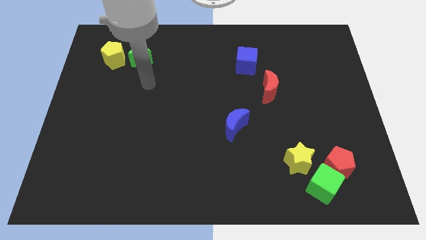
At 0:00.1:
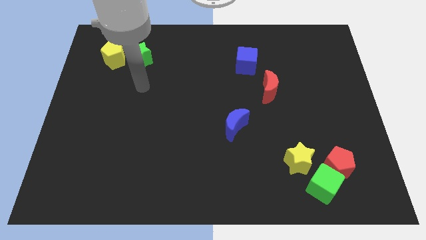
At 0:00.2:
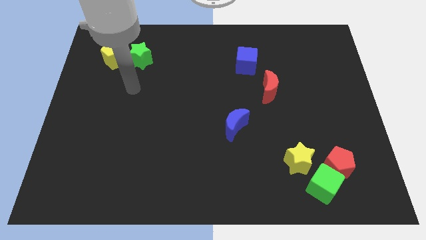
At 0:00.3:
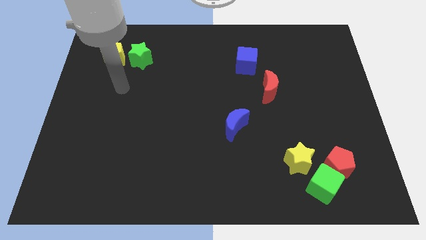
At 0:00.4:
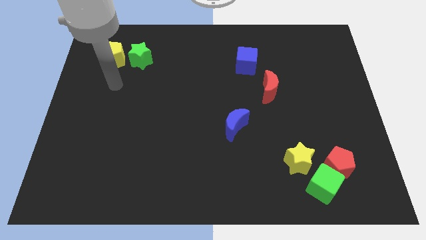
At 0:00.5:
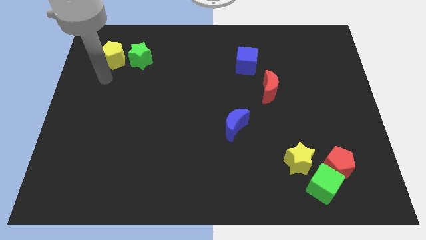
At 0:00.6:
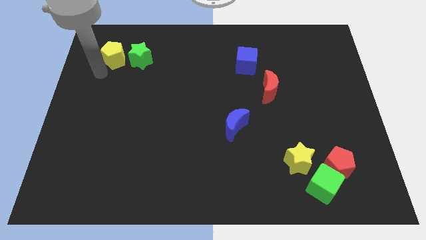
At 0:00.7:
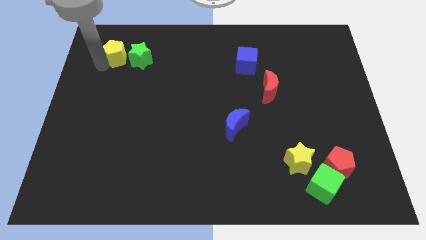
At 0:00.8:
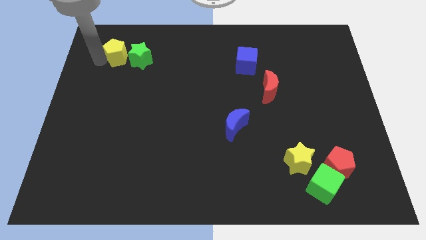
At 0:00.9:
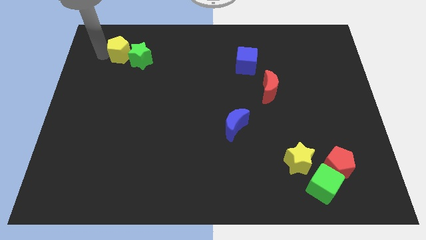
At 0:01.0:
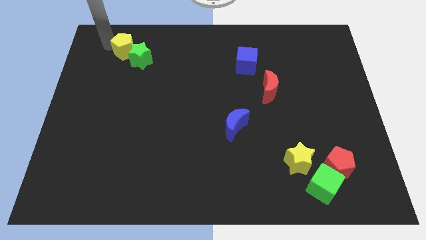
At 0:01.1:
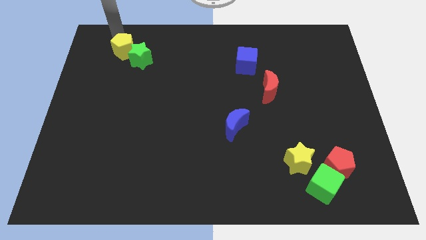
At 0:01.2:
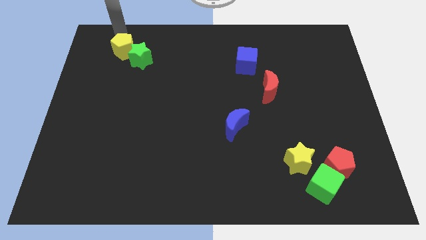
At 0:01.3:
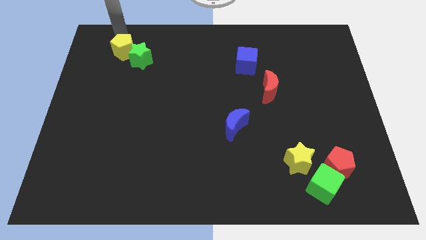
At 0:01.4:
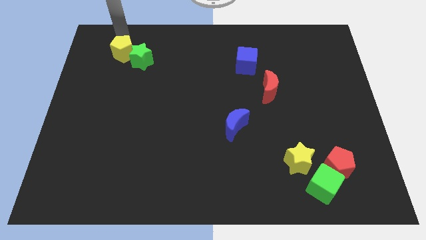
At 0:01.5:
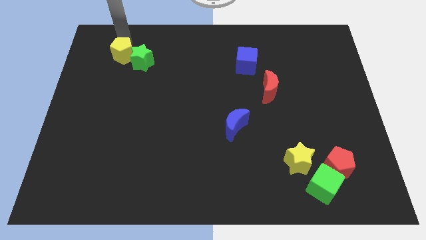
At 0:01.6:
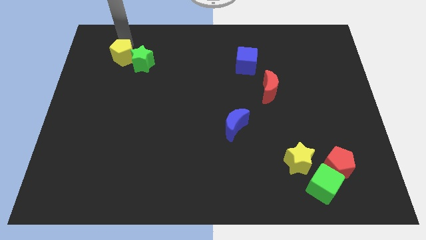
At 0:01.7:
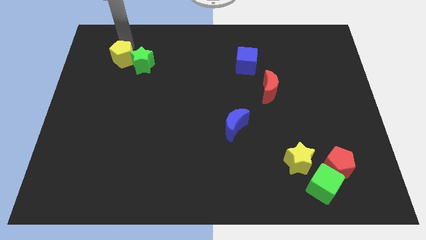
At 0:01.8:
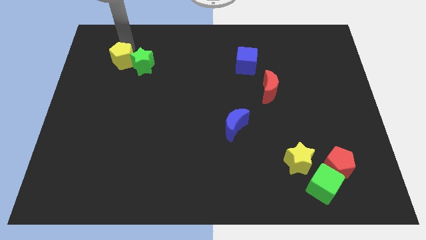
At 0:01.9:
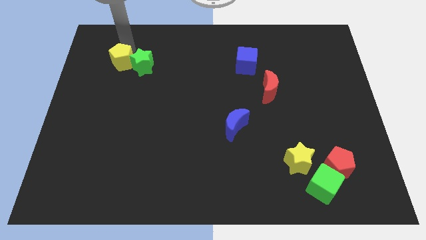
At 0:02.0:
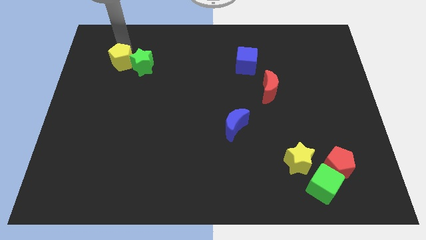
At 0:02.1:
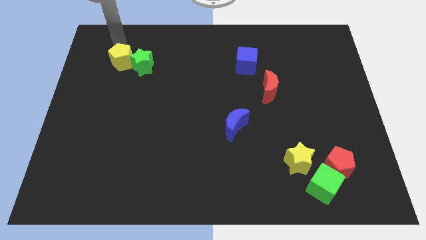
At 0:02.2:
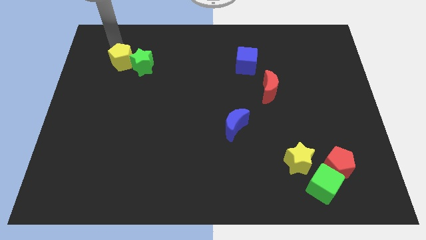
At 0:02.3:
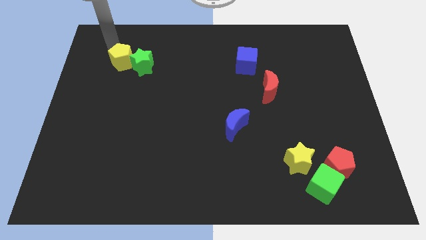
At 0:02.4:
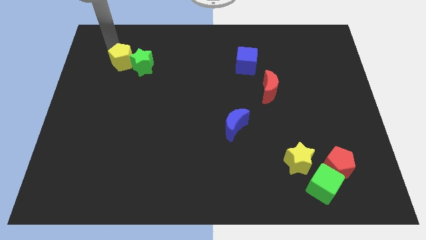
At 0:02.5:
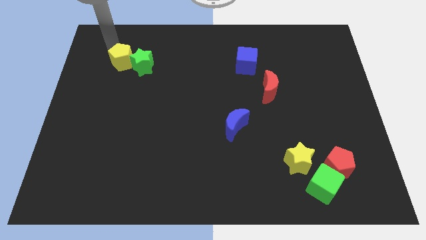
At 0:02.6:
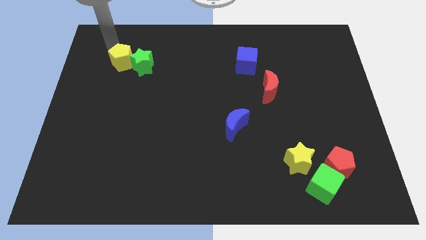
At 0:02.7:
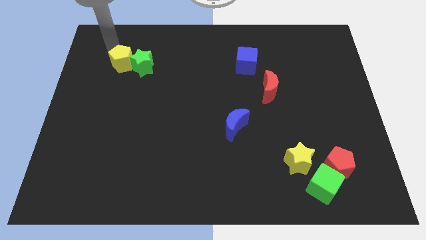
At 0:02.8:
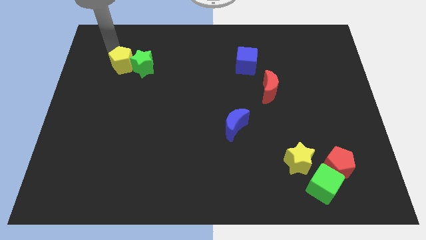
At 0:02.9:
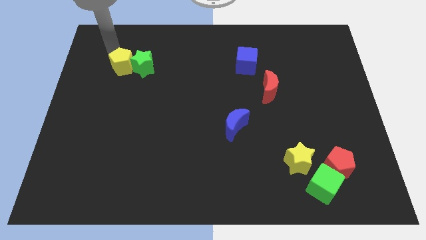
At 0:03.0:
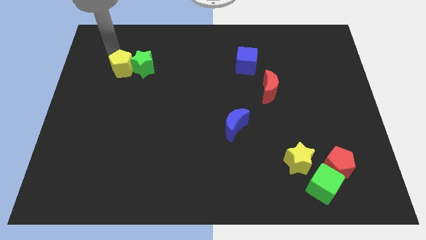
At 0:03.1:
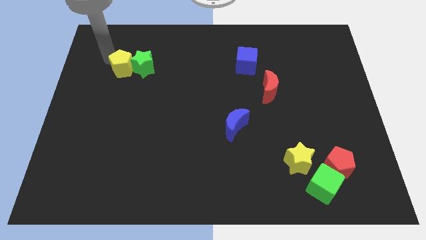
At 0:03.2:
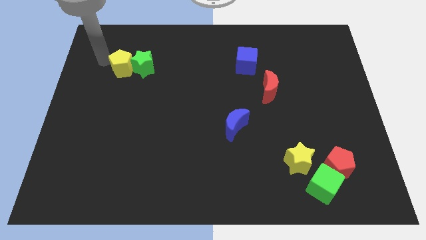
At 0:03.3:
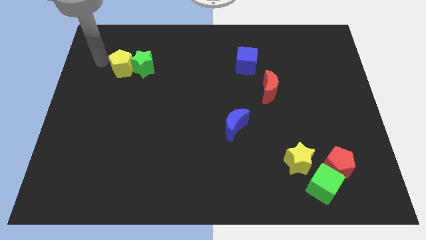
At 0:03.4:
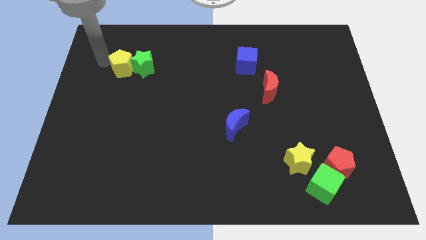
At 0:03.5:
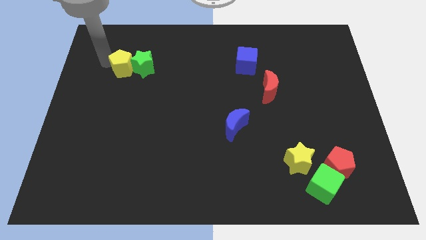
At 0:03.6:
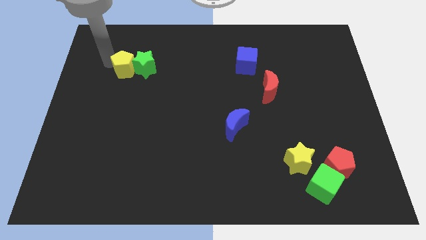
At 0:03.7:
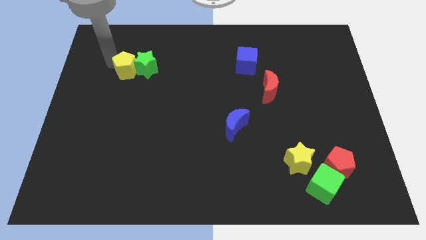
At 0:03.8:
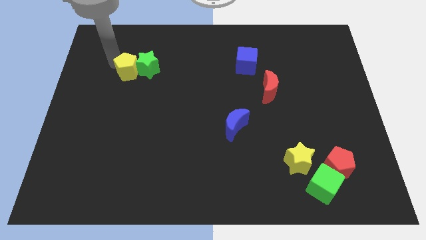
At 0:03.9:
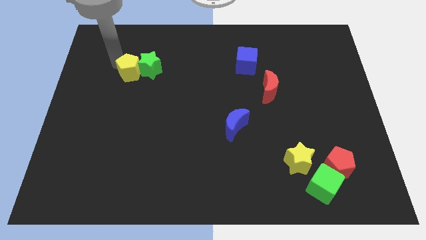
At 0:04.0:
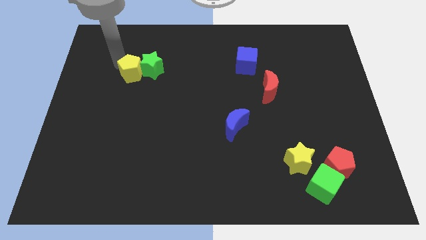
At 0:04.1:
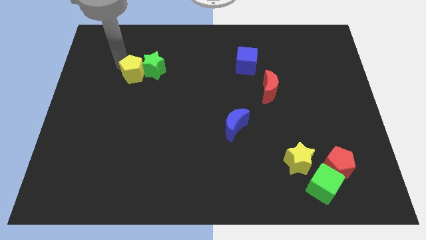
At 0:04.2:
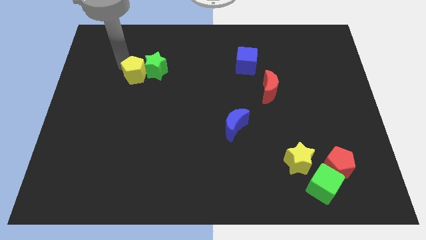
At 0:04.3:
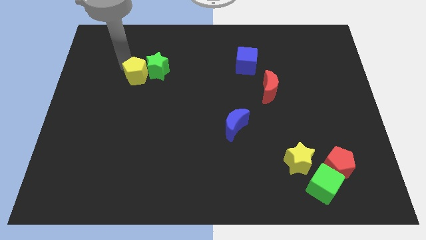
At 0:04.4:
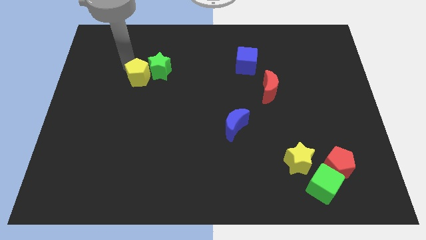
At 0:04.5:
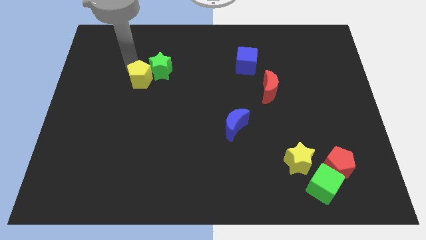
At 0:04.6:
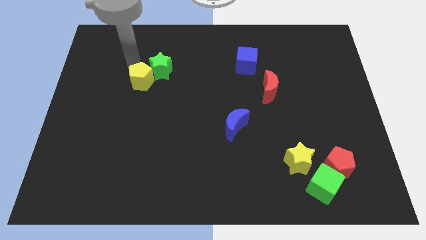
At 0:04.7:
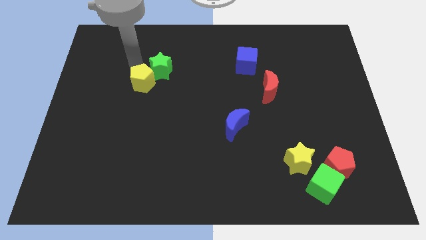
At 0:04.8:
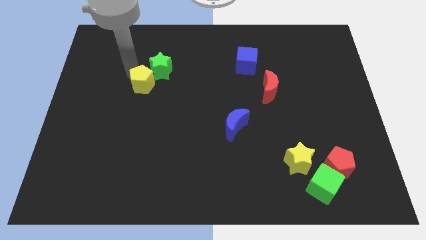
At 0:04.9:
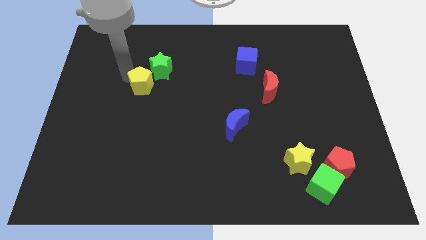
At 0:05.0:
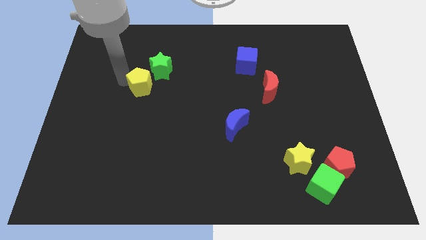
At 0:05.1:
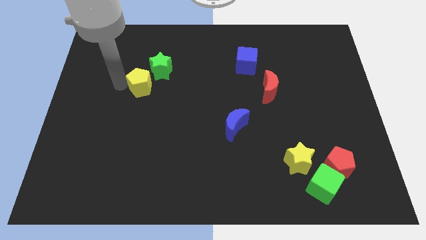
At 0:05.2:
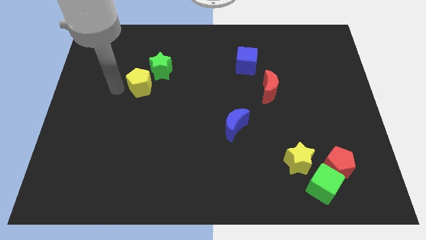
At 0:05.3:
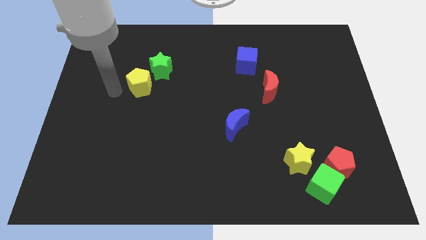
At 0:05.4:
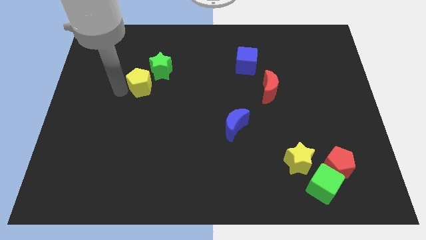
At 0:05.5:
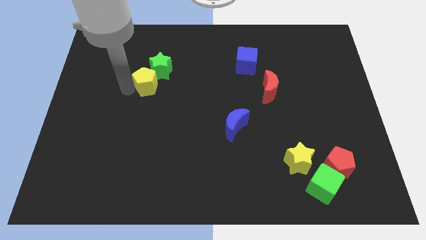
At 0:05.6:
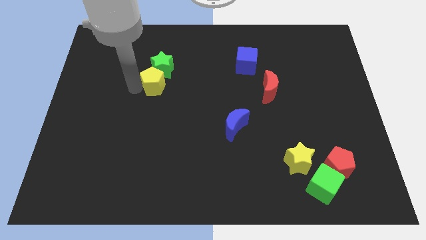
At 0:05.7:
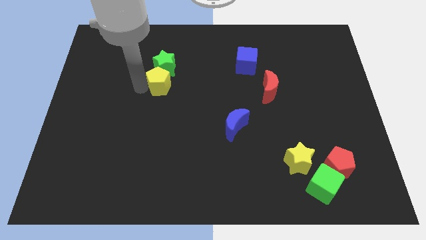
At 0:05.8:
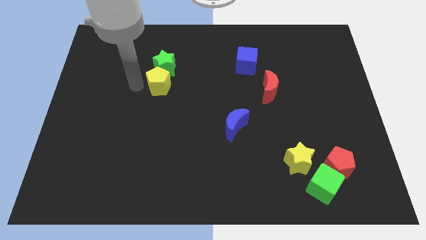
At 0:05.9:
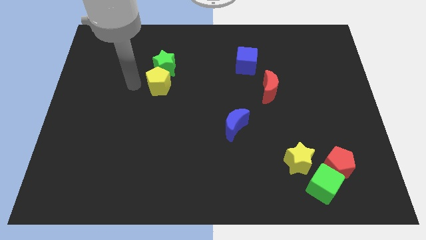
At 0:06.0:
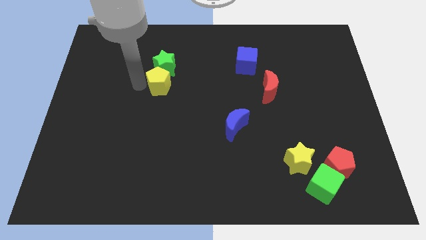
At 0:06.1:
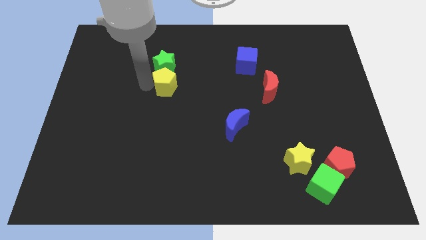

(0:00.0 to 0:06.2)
move the yellow pentagon to the center of the board
